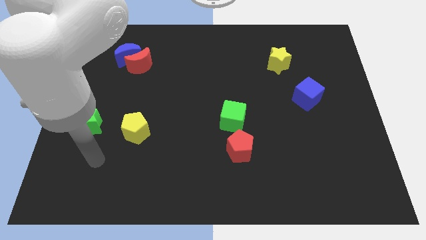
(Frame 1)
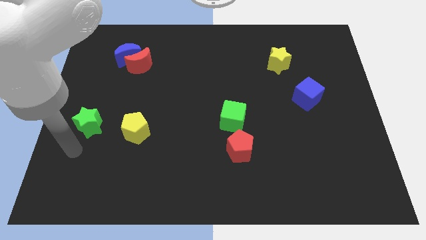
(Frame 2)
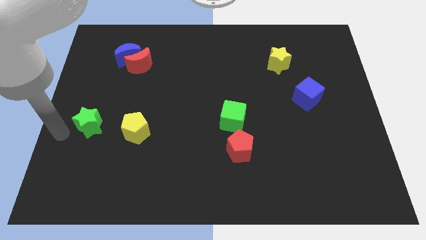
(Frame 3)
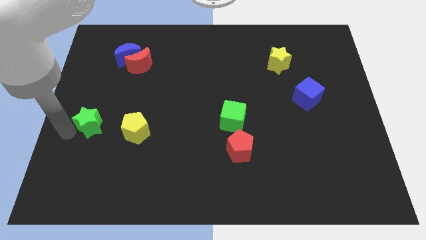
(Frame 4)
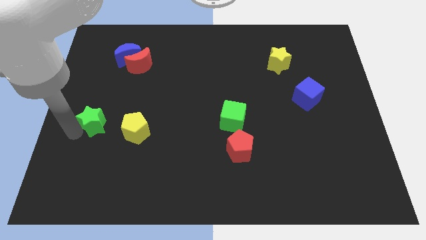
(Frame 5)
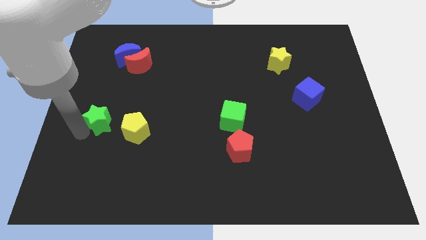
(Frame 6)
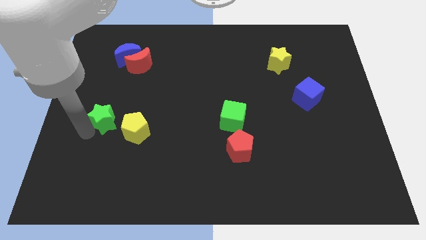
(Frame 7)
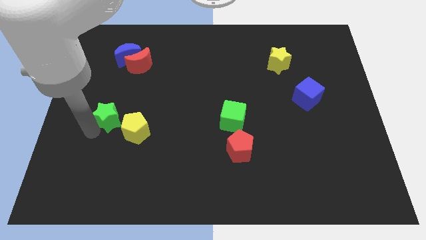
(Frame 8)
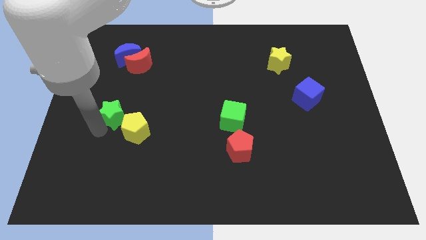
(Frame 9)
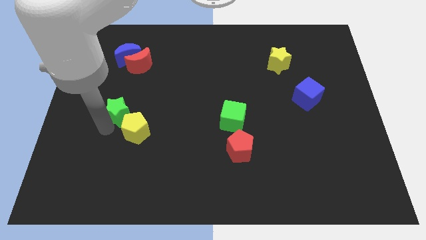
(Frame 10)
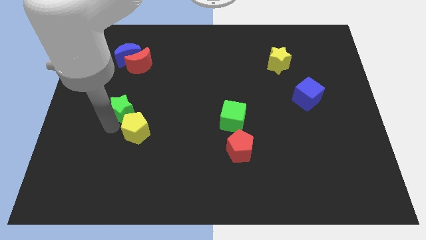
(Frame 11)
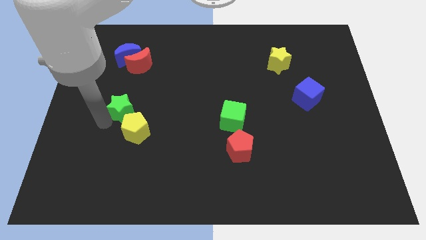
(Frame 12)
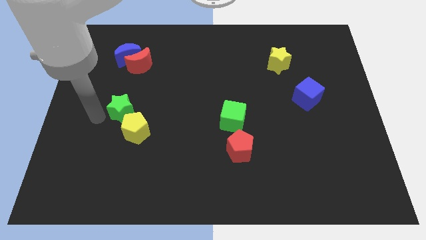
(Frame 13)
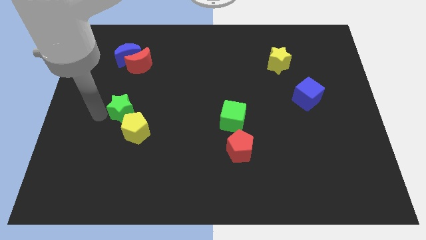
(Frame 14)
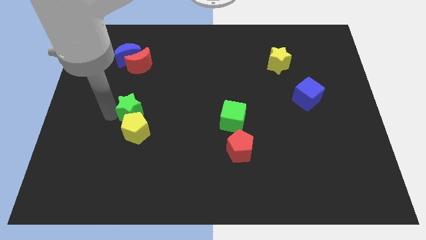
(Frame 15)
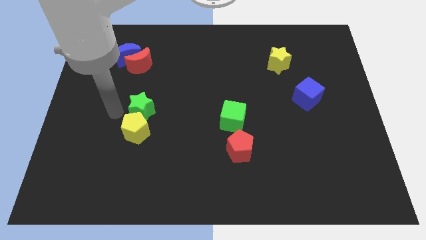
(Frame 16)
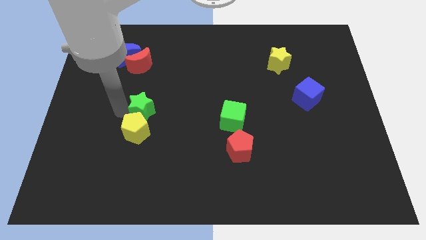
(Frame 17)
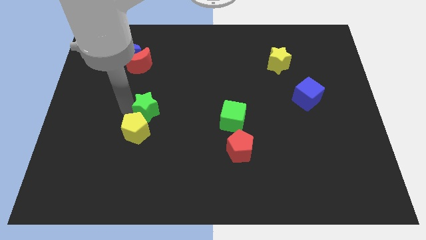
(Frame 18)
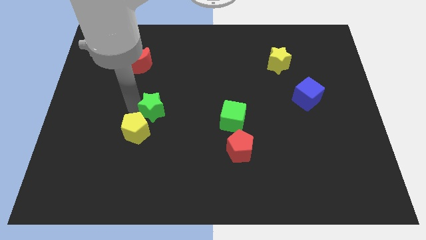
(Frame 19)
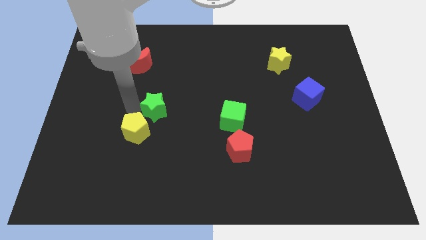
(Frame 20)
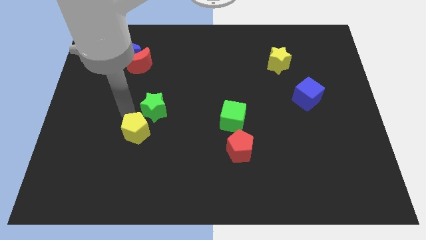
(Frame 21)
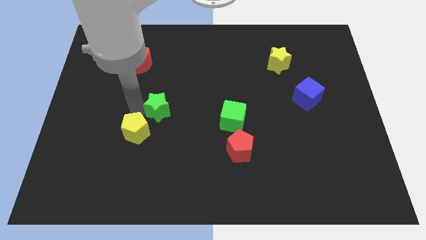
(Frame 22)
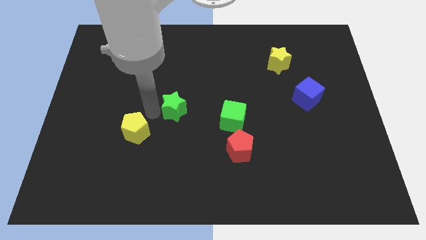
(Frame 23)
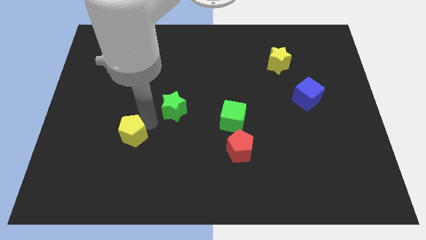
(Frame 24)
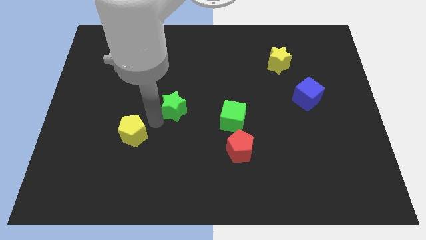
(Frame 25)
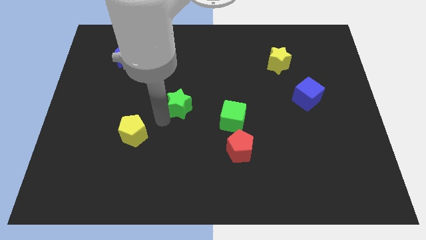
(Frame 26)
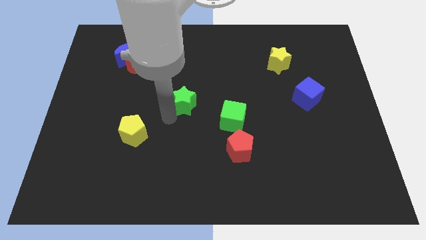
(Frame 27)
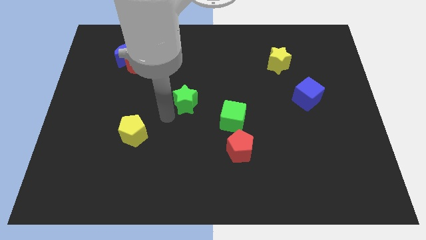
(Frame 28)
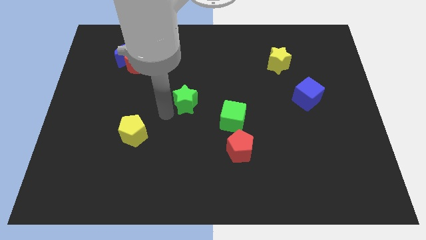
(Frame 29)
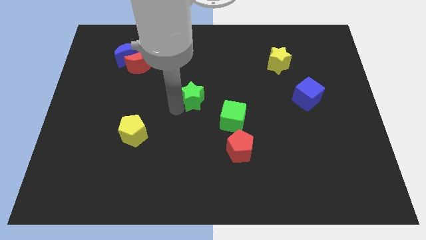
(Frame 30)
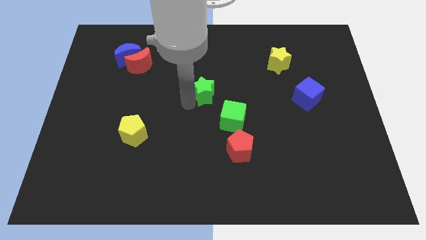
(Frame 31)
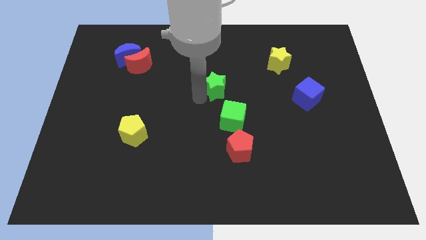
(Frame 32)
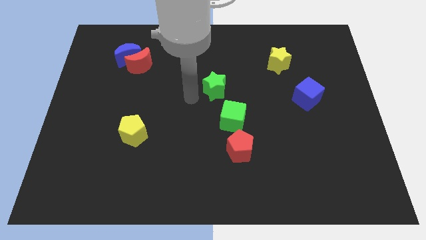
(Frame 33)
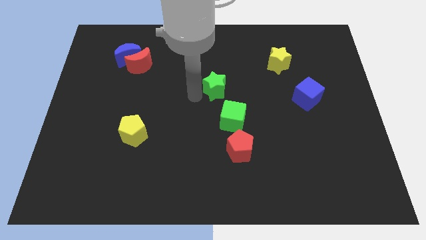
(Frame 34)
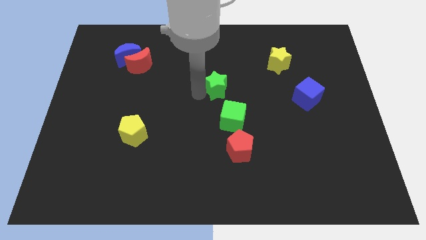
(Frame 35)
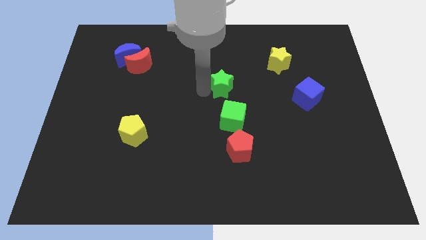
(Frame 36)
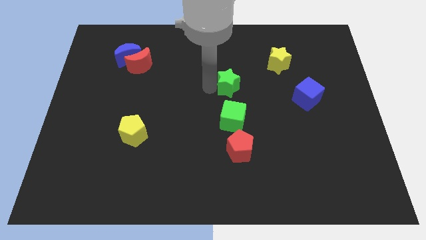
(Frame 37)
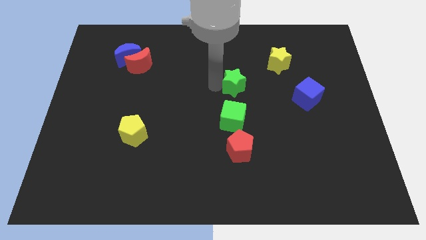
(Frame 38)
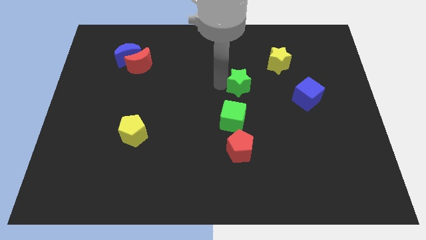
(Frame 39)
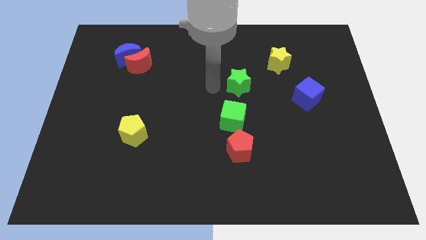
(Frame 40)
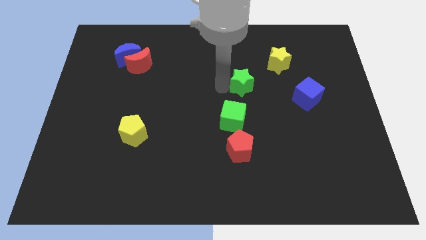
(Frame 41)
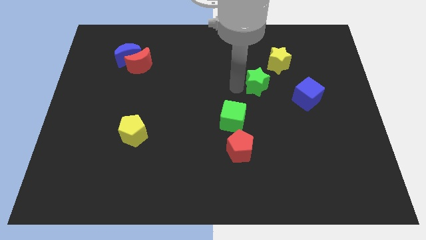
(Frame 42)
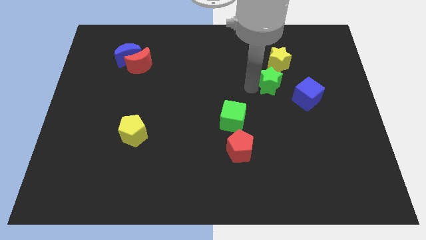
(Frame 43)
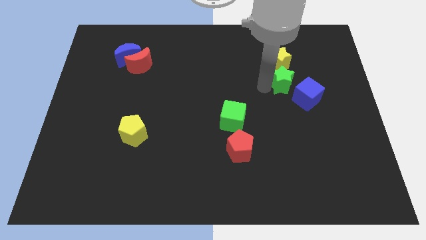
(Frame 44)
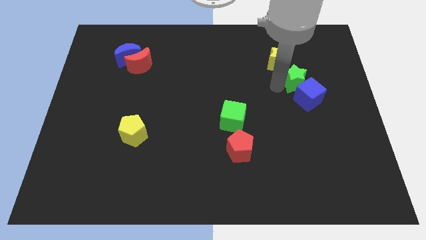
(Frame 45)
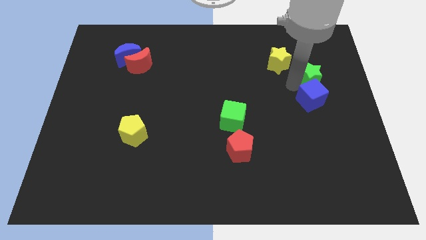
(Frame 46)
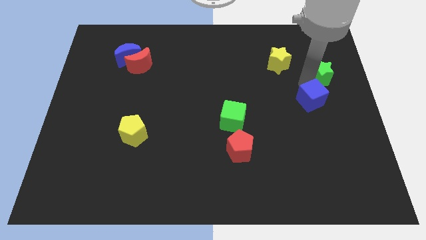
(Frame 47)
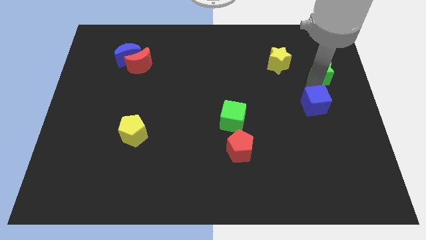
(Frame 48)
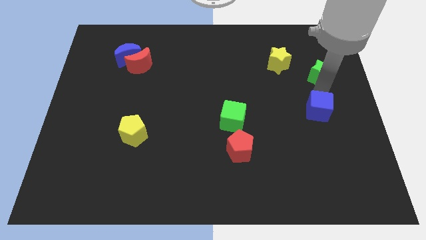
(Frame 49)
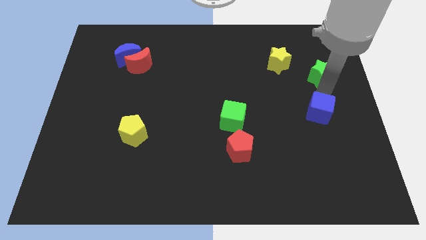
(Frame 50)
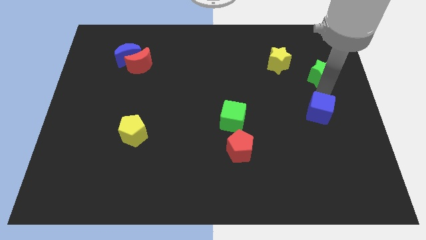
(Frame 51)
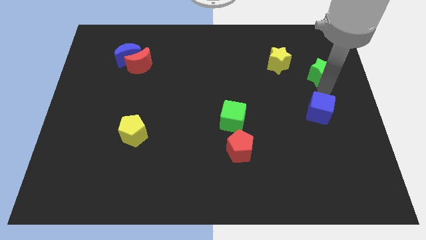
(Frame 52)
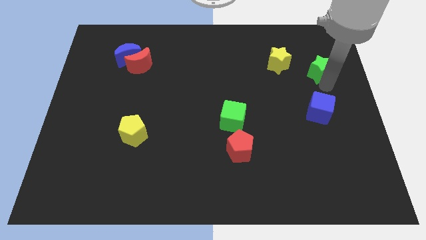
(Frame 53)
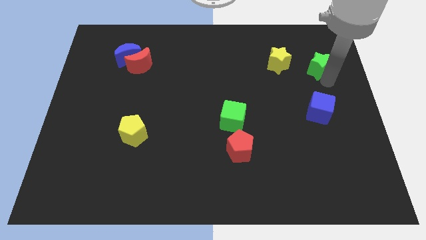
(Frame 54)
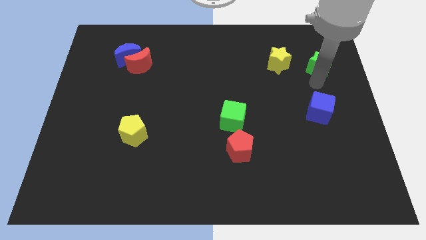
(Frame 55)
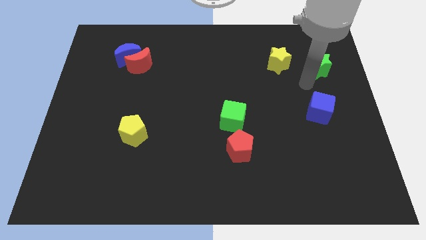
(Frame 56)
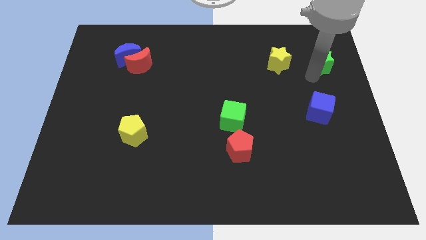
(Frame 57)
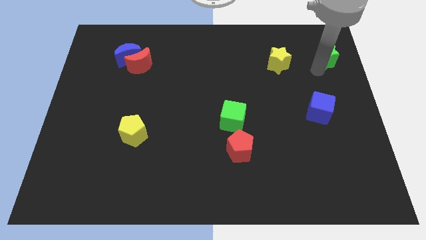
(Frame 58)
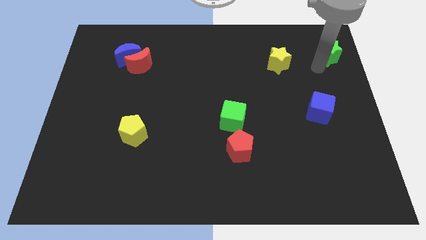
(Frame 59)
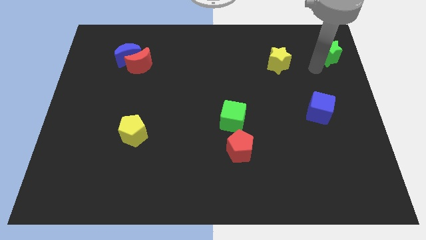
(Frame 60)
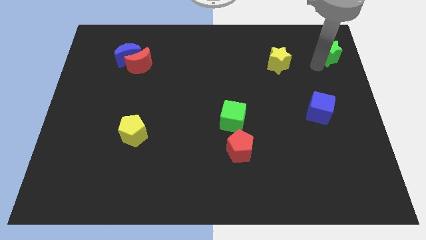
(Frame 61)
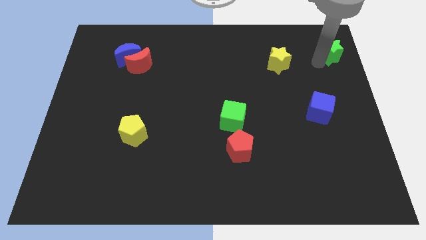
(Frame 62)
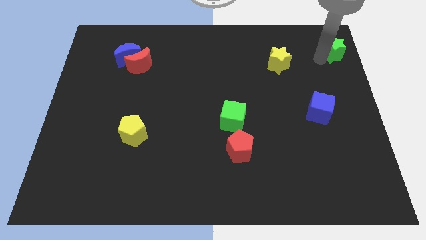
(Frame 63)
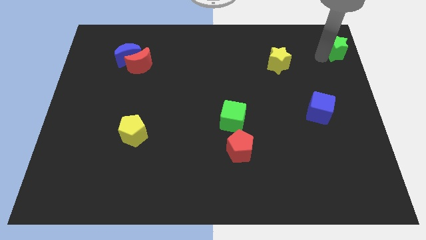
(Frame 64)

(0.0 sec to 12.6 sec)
put the green star to the top right of the board
